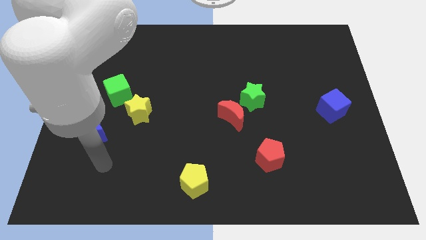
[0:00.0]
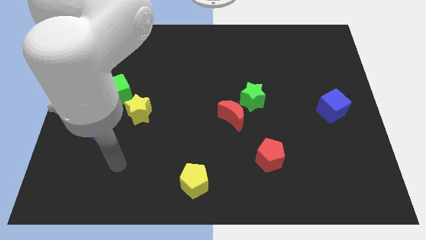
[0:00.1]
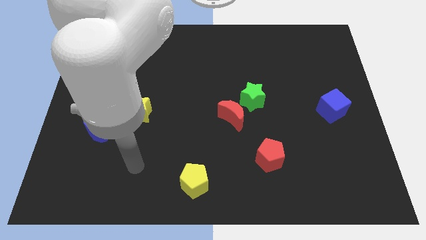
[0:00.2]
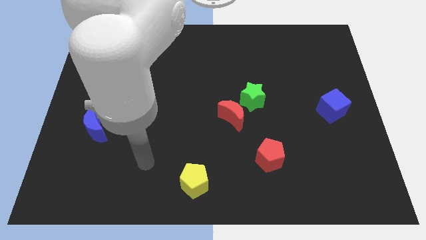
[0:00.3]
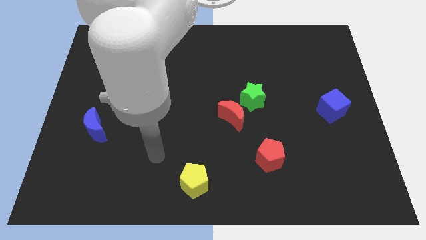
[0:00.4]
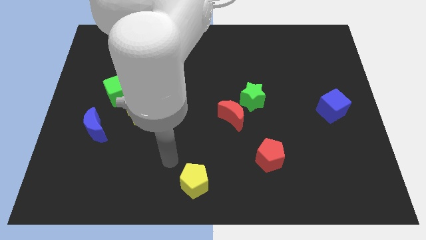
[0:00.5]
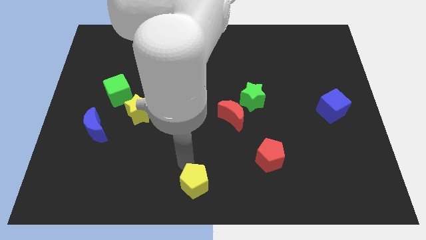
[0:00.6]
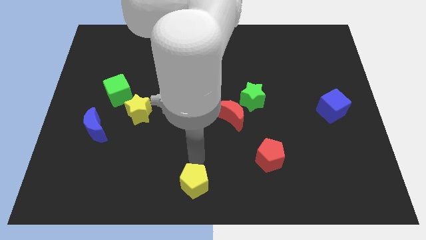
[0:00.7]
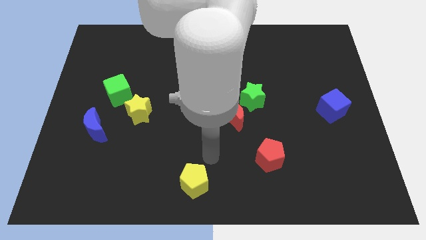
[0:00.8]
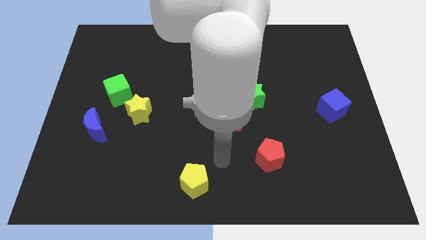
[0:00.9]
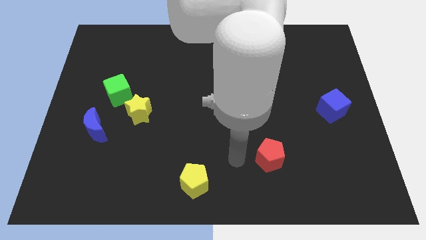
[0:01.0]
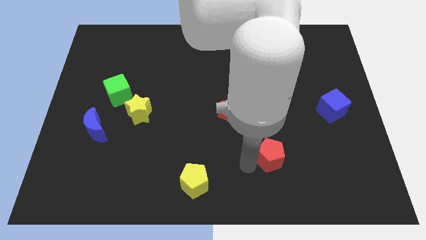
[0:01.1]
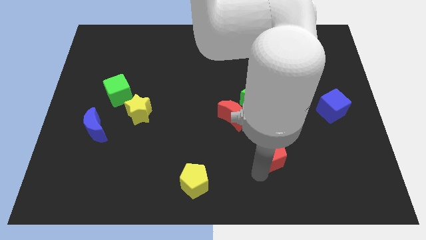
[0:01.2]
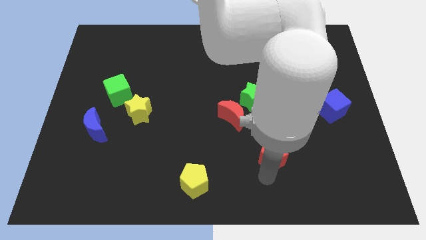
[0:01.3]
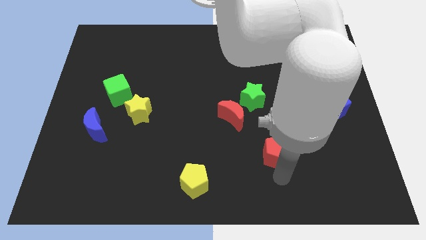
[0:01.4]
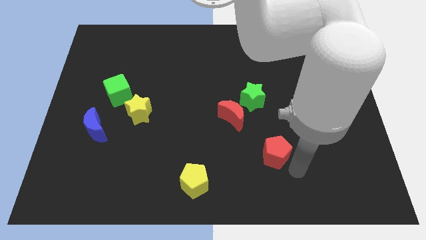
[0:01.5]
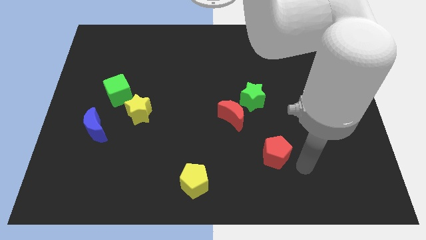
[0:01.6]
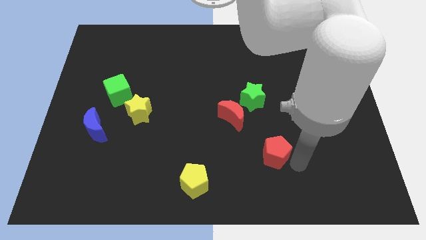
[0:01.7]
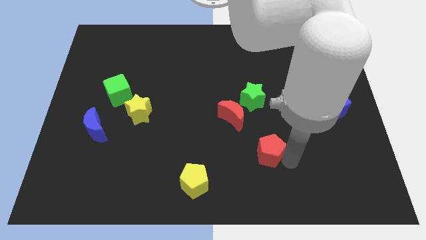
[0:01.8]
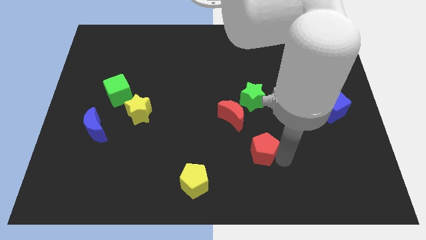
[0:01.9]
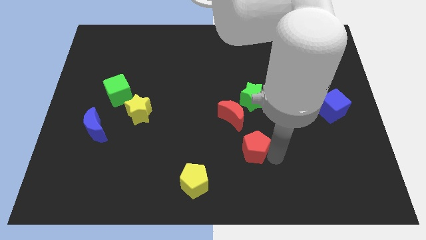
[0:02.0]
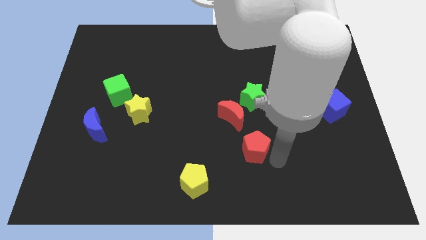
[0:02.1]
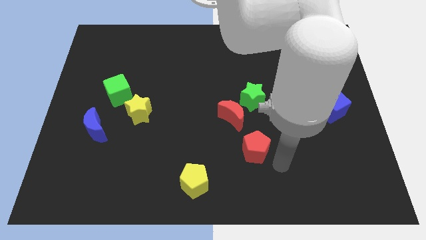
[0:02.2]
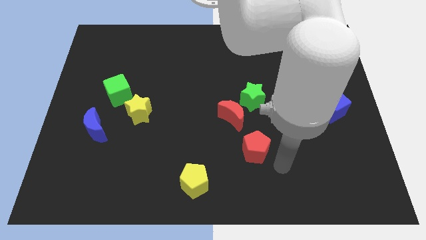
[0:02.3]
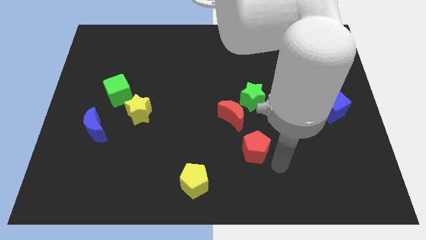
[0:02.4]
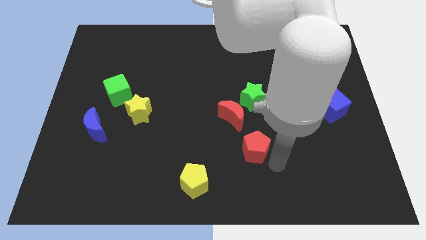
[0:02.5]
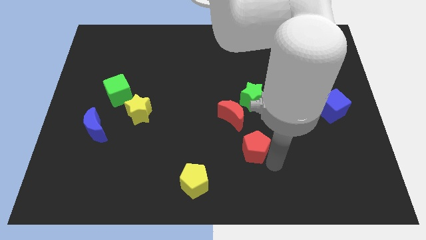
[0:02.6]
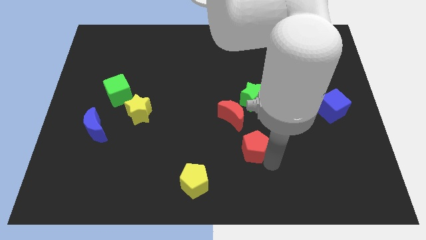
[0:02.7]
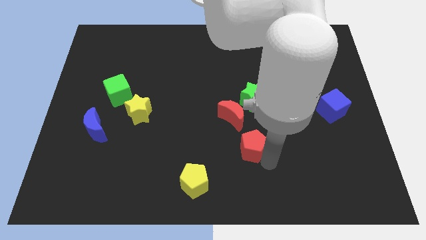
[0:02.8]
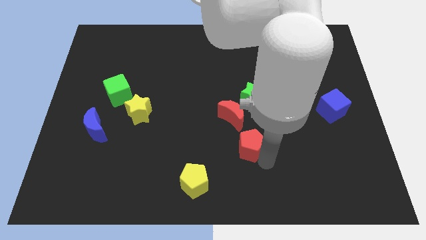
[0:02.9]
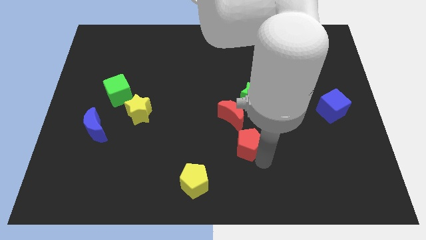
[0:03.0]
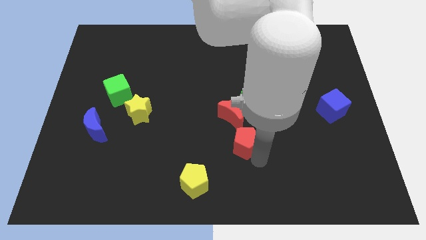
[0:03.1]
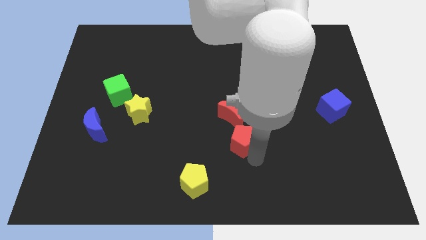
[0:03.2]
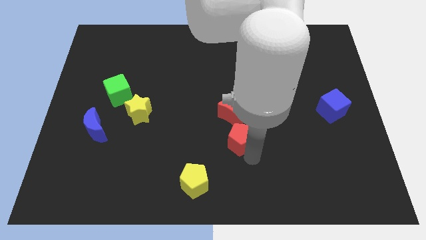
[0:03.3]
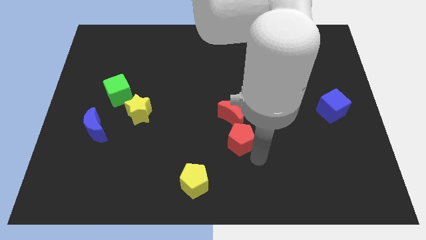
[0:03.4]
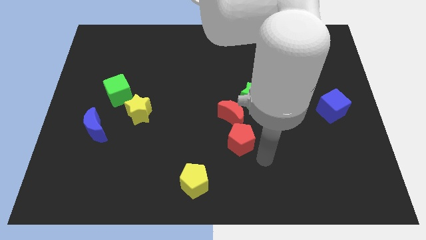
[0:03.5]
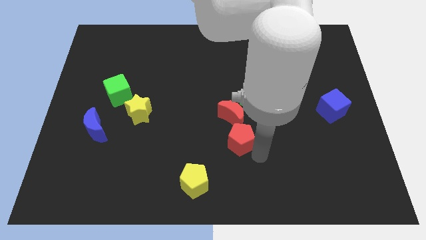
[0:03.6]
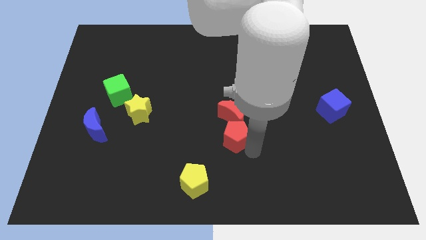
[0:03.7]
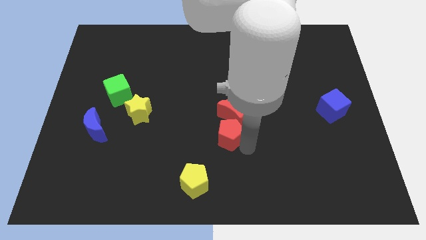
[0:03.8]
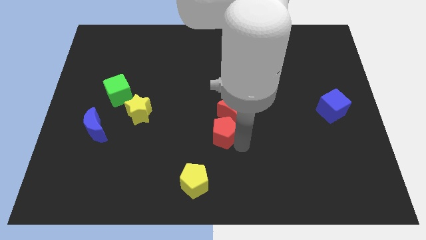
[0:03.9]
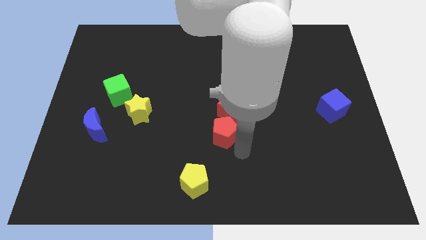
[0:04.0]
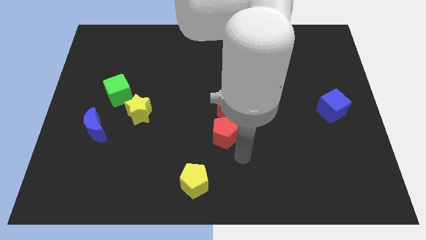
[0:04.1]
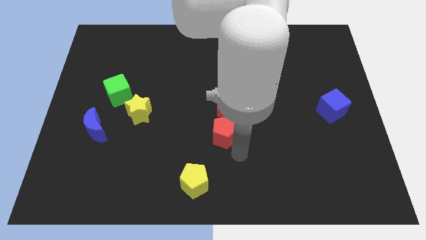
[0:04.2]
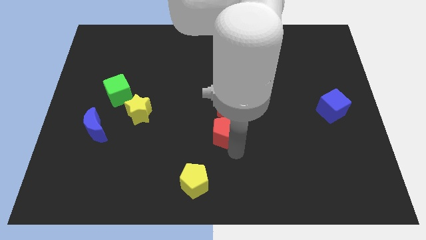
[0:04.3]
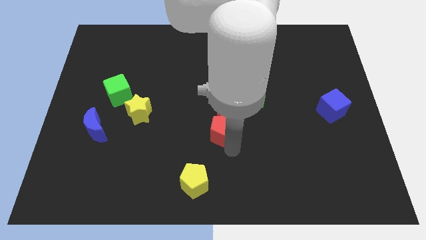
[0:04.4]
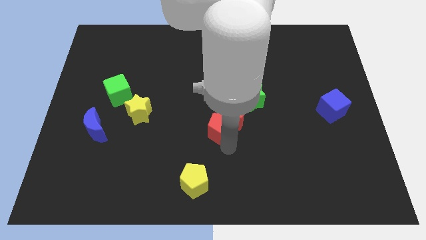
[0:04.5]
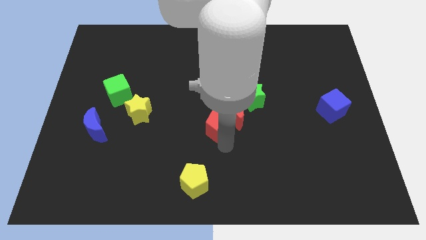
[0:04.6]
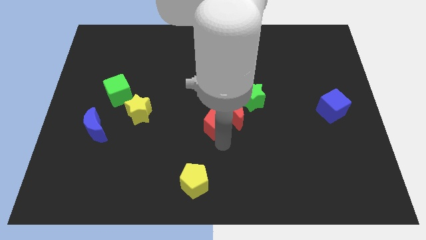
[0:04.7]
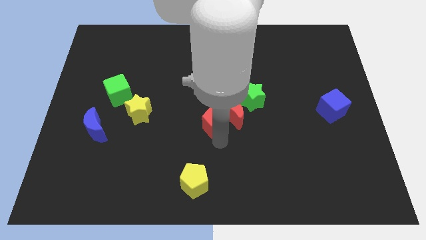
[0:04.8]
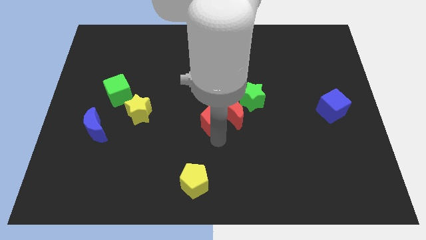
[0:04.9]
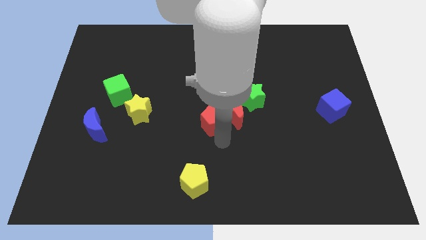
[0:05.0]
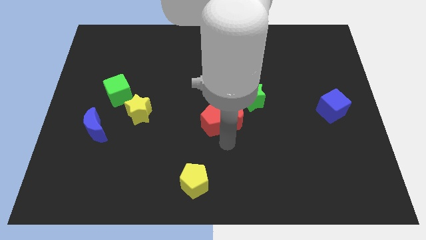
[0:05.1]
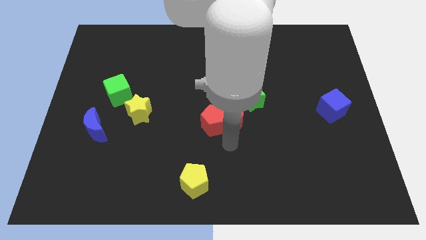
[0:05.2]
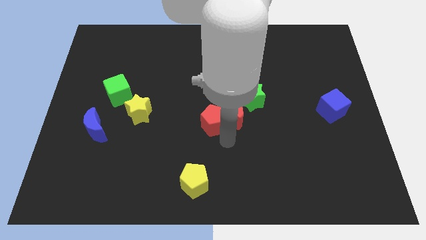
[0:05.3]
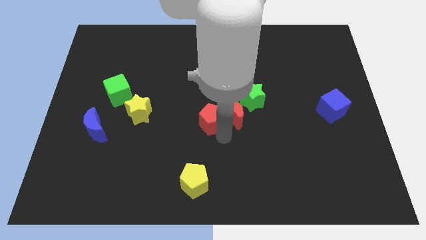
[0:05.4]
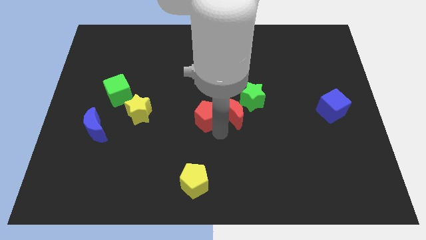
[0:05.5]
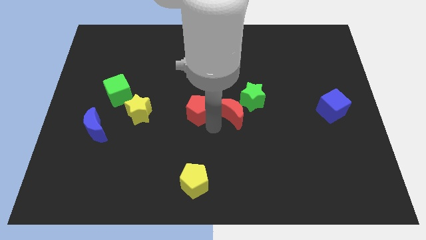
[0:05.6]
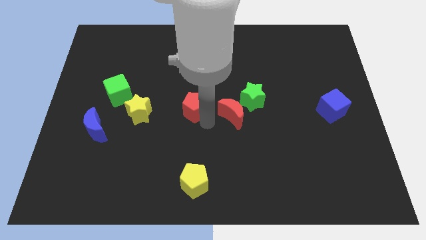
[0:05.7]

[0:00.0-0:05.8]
move the red pentagon up and left

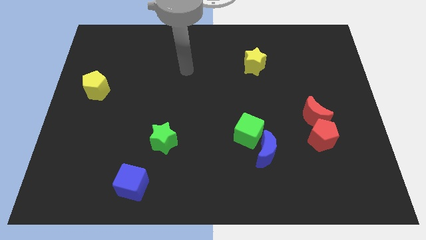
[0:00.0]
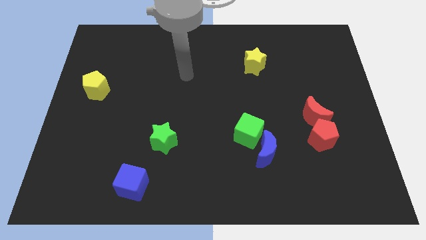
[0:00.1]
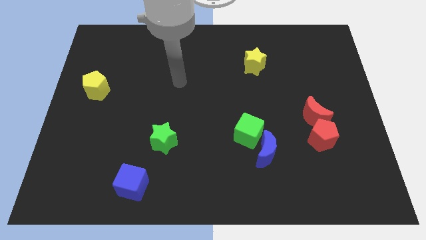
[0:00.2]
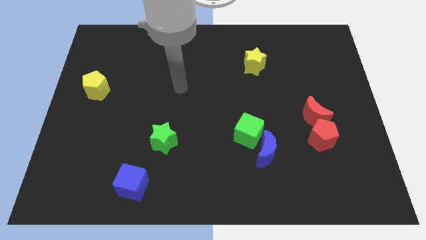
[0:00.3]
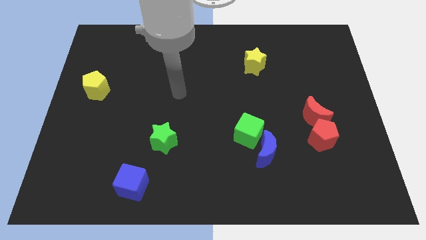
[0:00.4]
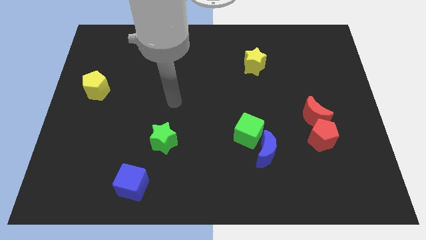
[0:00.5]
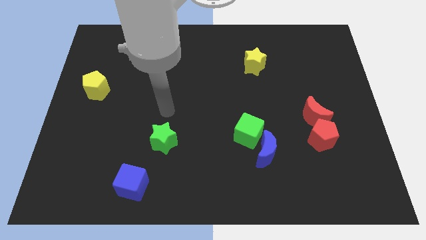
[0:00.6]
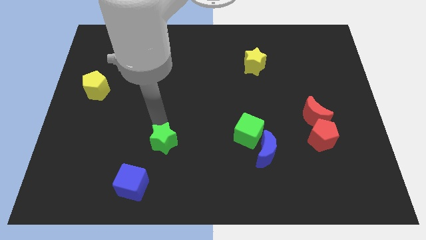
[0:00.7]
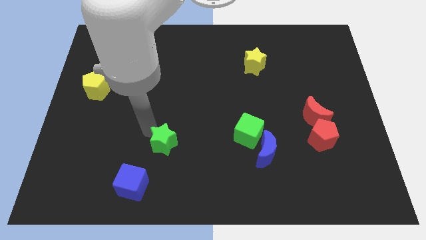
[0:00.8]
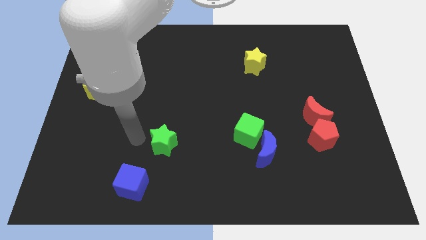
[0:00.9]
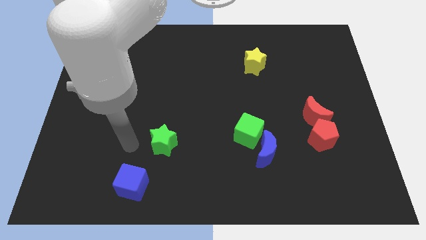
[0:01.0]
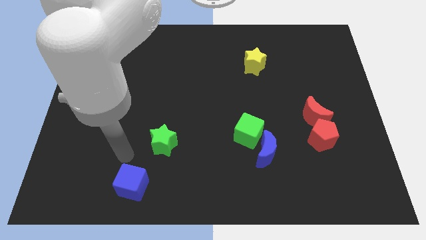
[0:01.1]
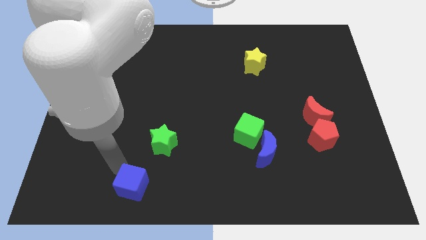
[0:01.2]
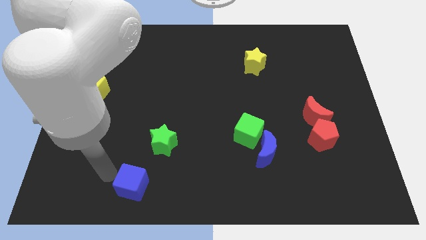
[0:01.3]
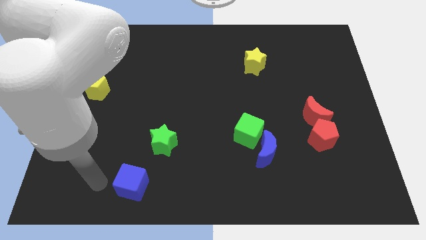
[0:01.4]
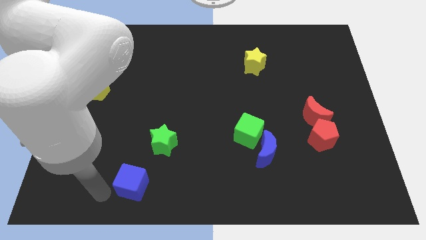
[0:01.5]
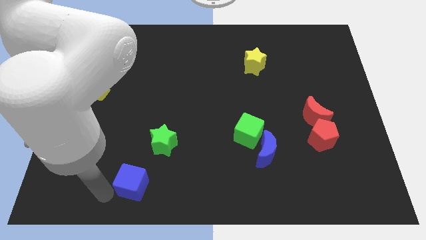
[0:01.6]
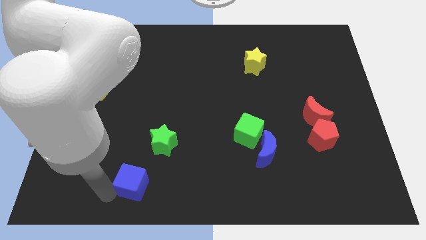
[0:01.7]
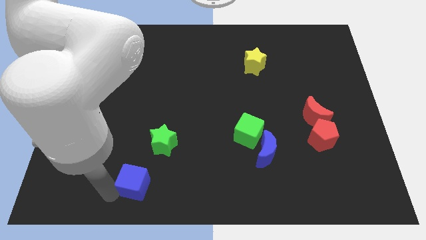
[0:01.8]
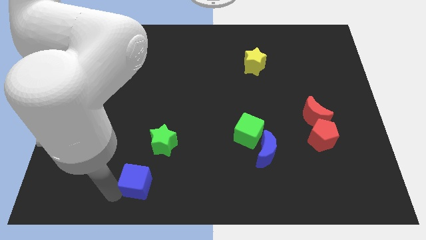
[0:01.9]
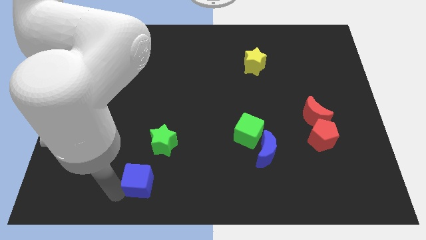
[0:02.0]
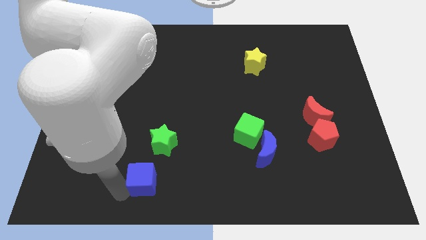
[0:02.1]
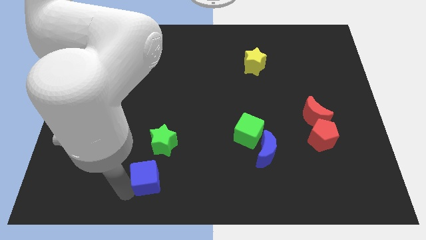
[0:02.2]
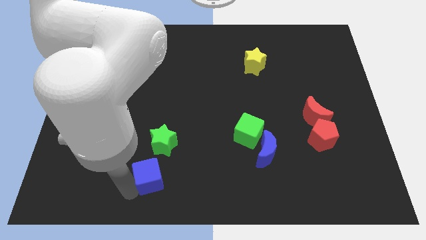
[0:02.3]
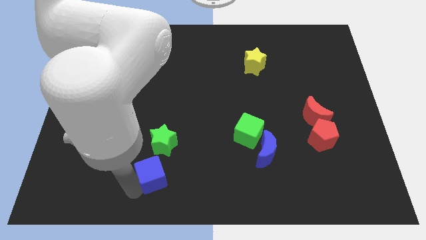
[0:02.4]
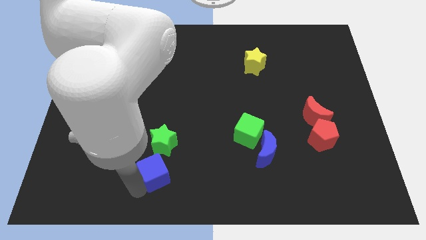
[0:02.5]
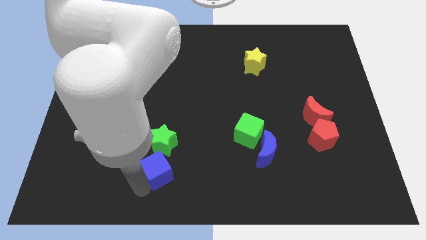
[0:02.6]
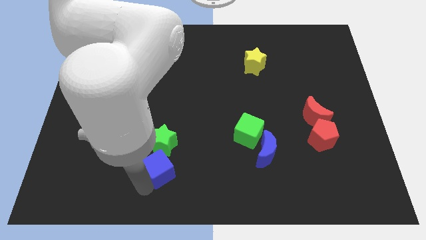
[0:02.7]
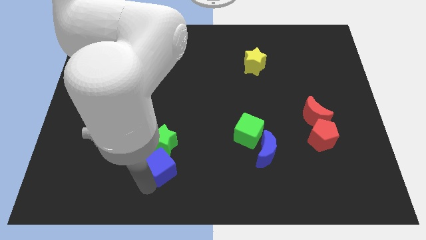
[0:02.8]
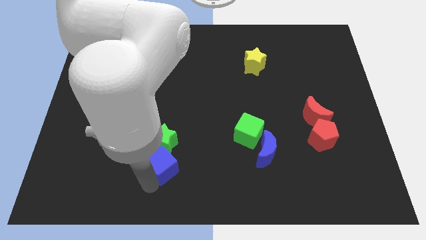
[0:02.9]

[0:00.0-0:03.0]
move the blue cube upwards and to the right slightly
